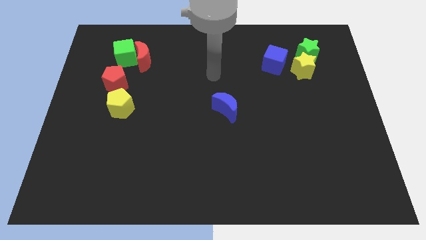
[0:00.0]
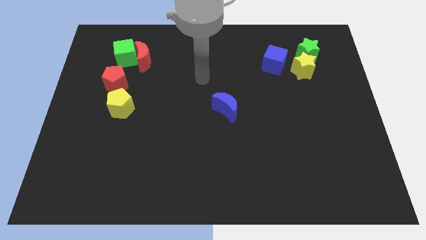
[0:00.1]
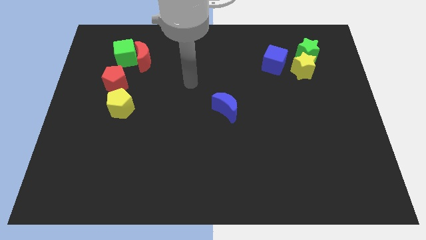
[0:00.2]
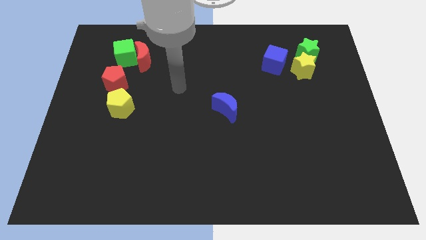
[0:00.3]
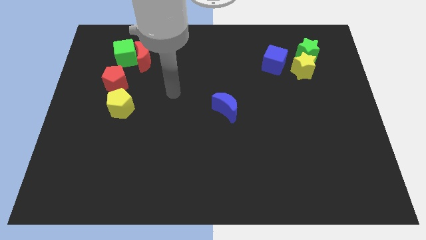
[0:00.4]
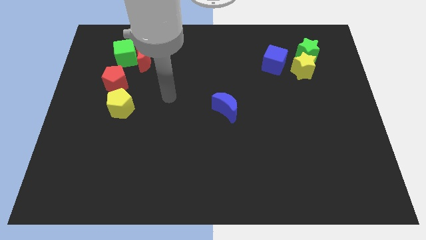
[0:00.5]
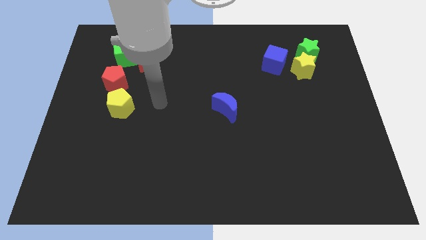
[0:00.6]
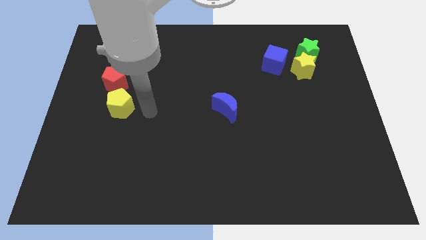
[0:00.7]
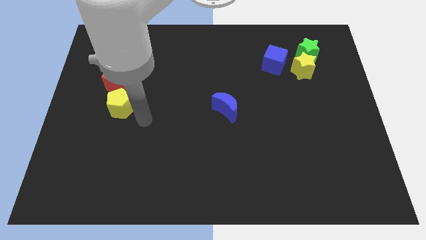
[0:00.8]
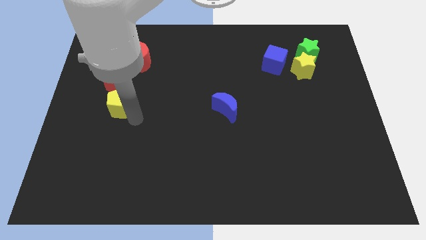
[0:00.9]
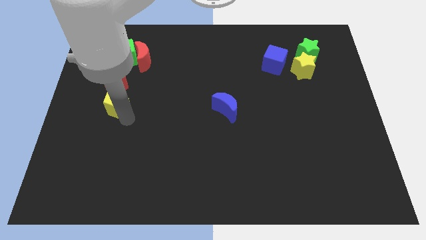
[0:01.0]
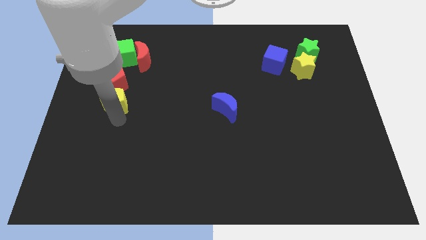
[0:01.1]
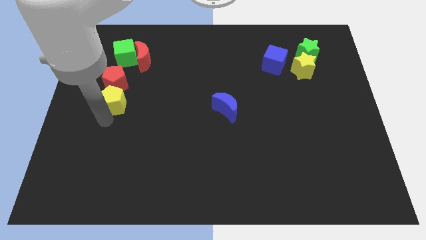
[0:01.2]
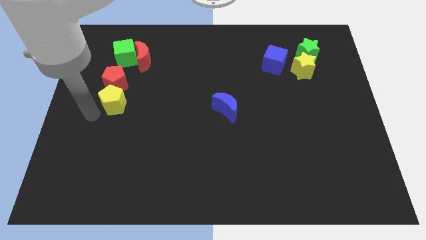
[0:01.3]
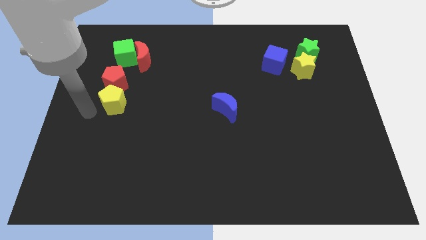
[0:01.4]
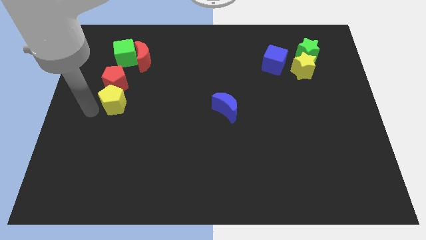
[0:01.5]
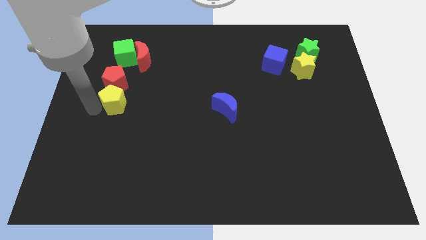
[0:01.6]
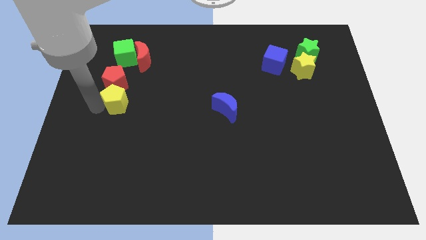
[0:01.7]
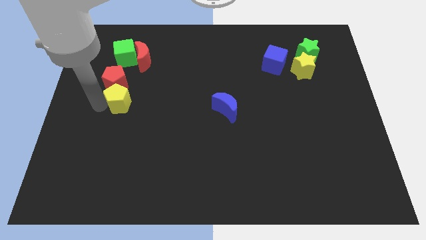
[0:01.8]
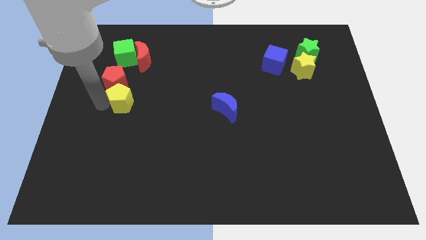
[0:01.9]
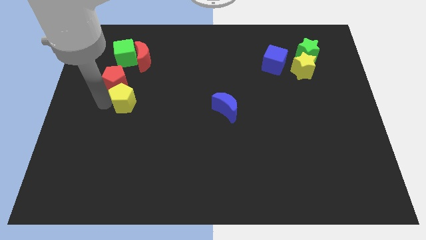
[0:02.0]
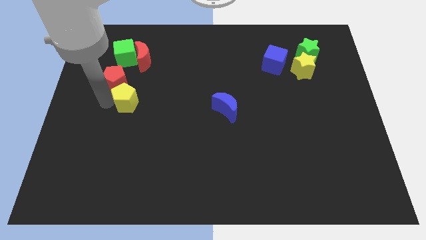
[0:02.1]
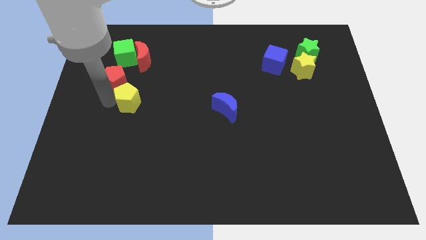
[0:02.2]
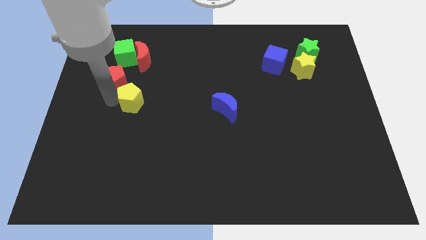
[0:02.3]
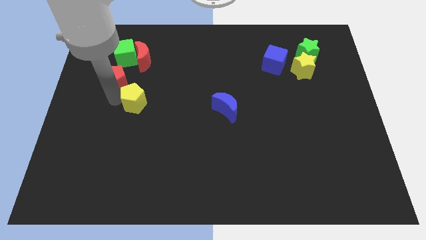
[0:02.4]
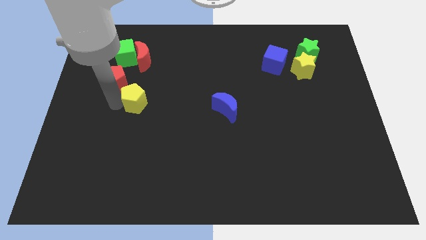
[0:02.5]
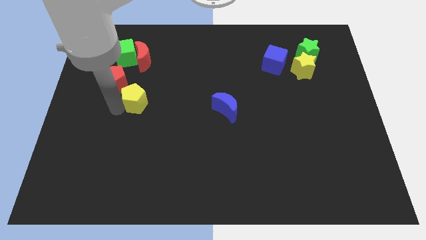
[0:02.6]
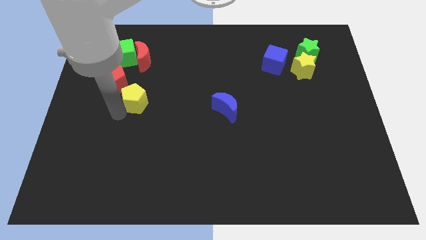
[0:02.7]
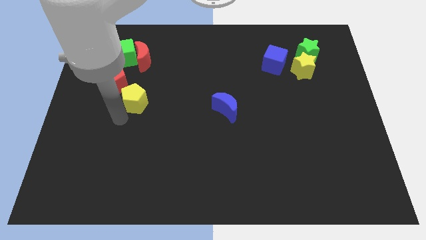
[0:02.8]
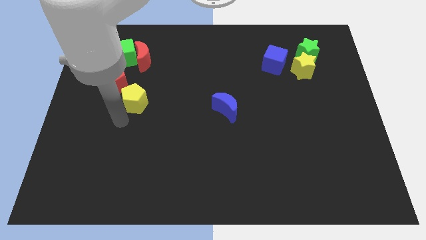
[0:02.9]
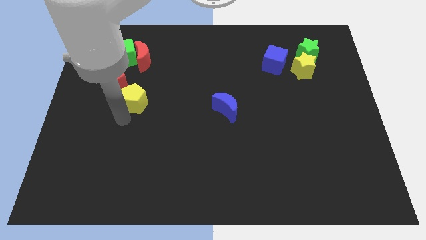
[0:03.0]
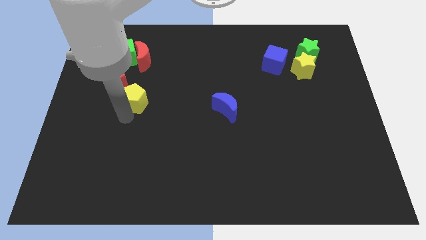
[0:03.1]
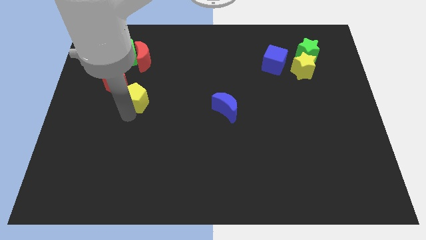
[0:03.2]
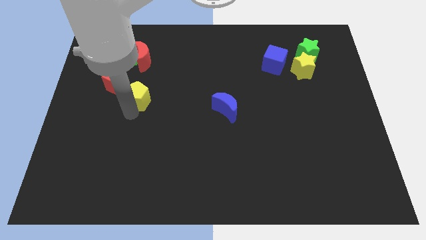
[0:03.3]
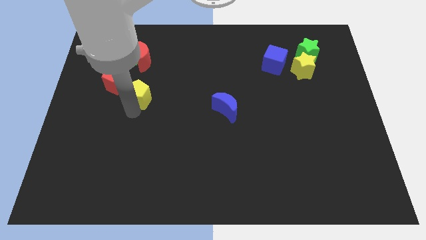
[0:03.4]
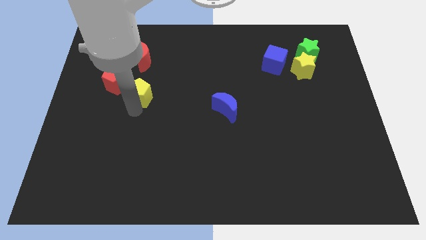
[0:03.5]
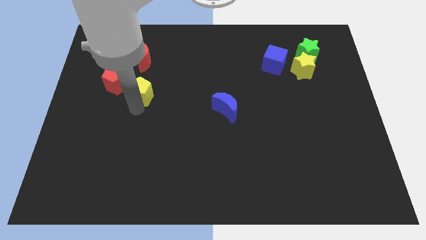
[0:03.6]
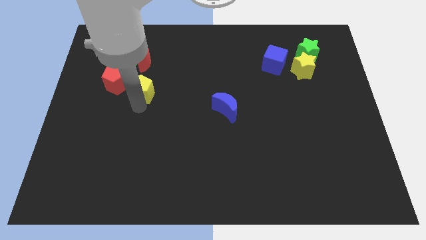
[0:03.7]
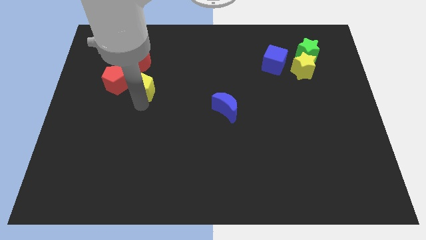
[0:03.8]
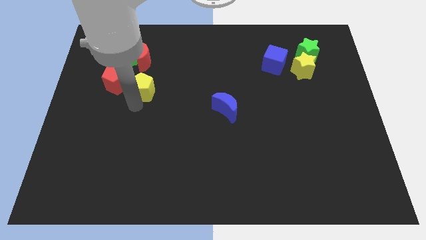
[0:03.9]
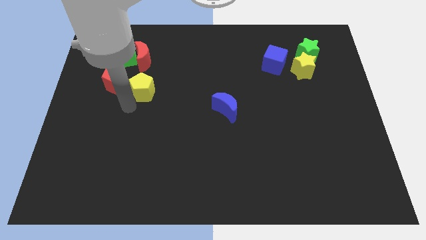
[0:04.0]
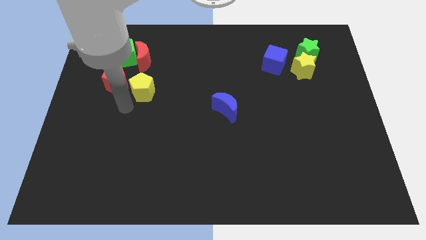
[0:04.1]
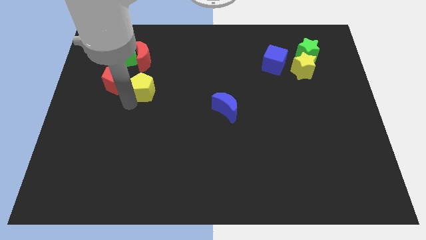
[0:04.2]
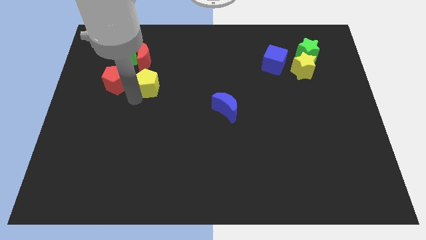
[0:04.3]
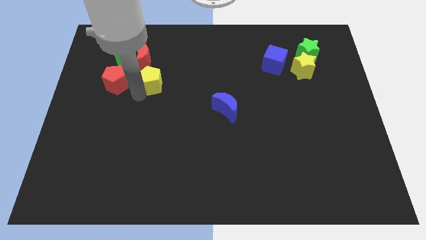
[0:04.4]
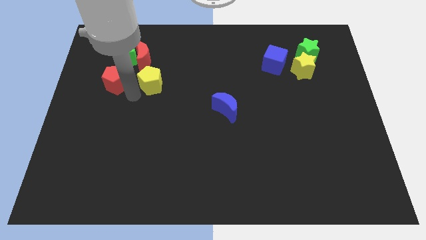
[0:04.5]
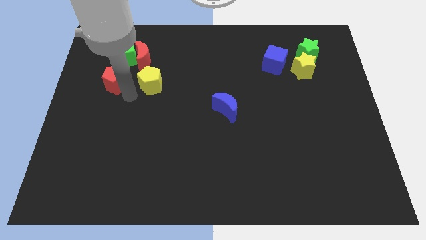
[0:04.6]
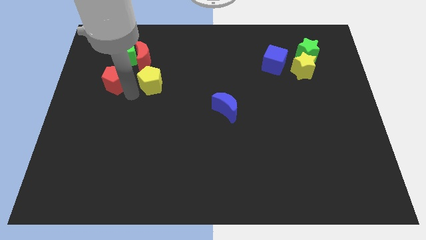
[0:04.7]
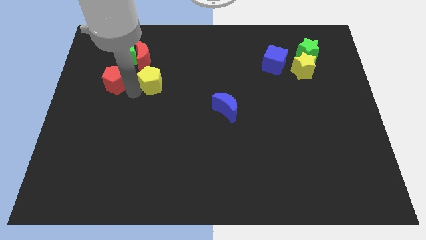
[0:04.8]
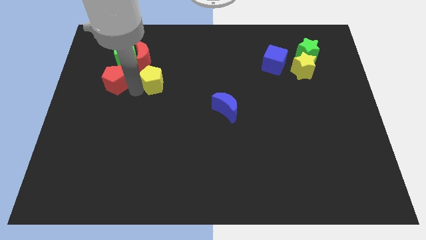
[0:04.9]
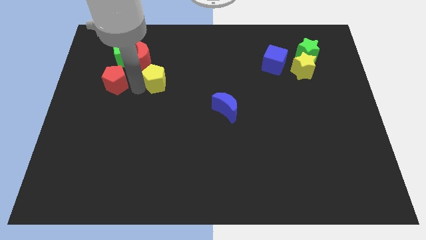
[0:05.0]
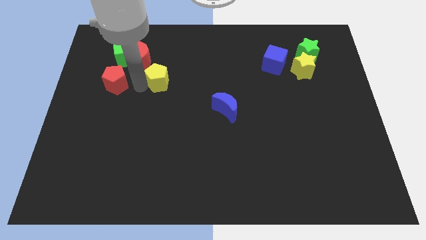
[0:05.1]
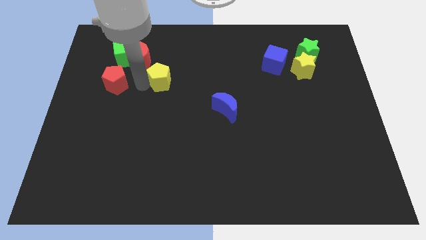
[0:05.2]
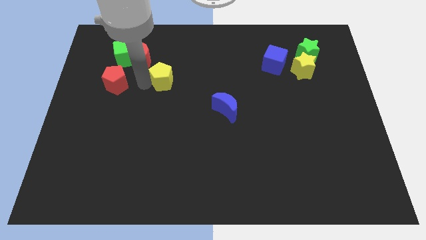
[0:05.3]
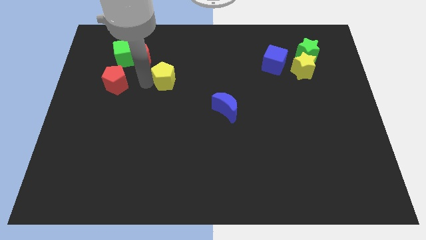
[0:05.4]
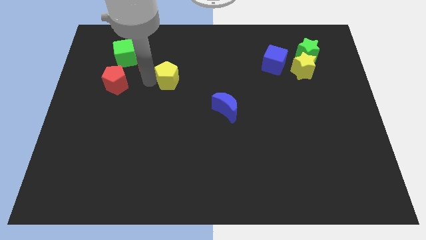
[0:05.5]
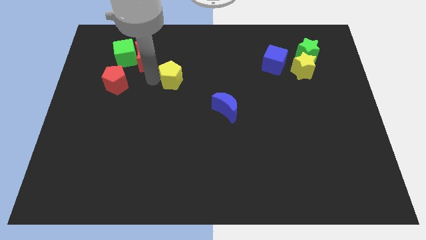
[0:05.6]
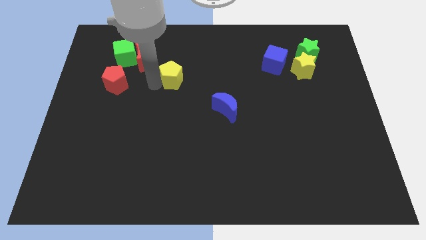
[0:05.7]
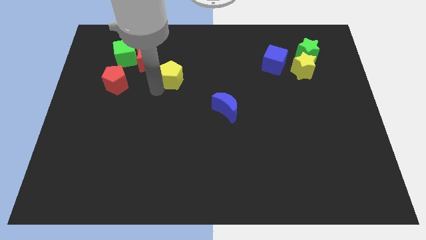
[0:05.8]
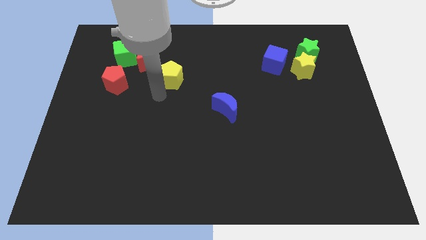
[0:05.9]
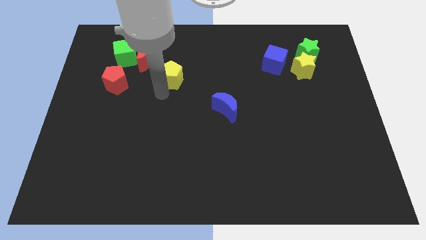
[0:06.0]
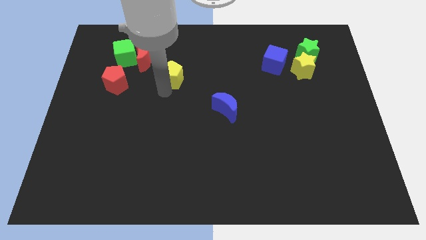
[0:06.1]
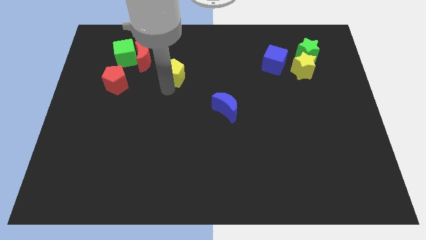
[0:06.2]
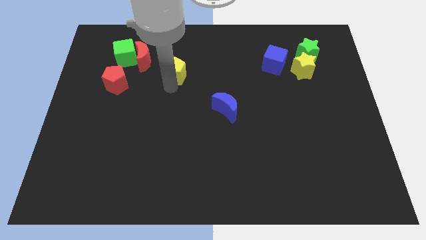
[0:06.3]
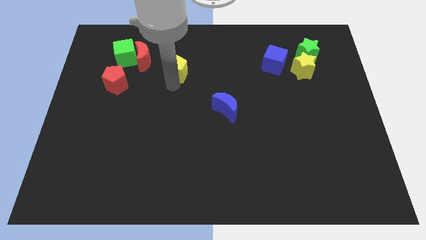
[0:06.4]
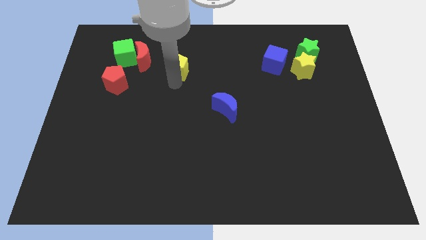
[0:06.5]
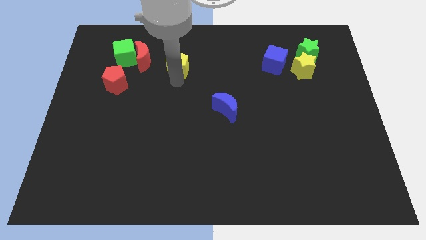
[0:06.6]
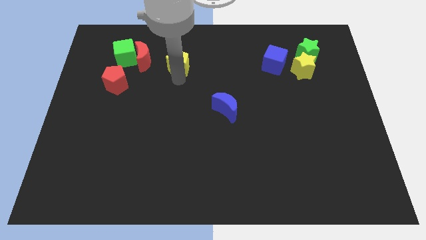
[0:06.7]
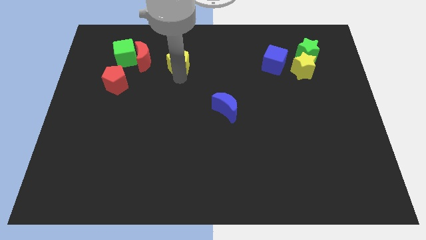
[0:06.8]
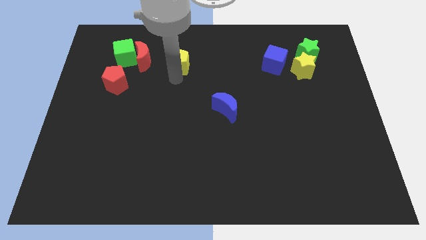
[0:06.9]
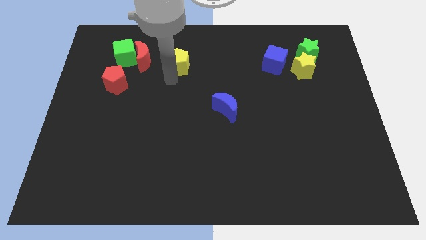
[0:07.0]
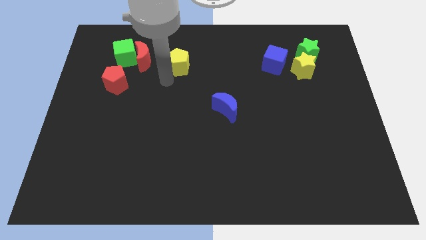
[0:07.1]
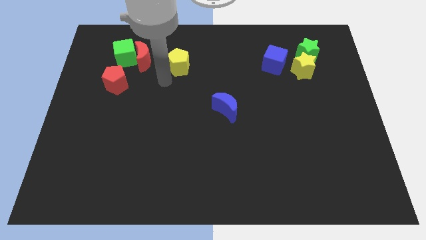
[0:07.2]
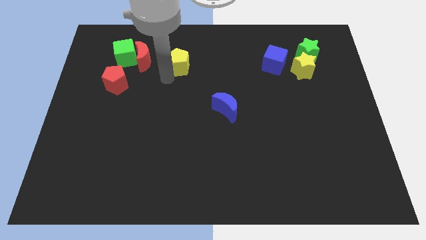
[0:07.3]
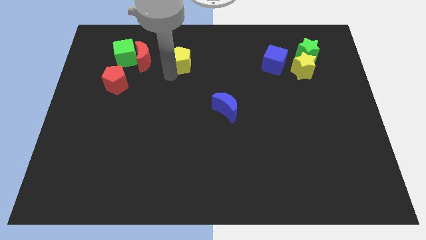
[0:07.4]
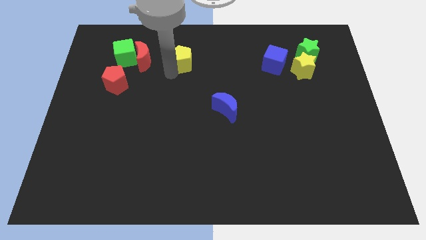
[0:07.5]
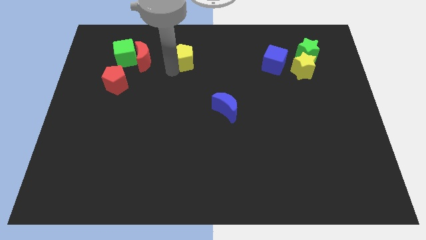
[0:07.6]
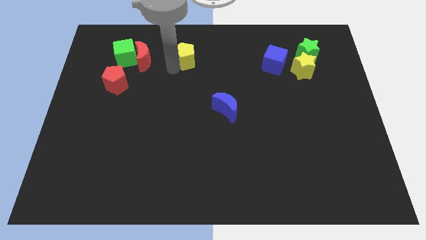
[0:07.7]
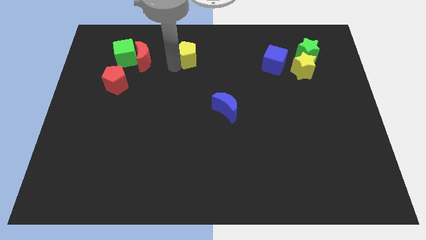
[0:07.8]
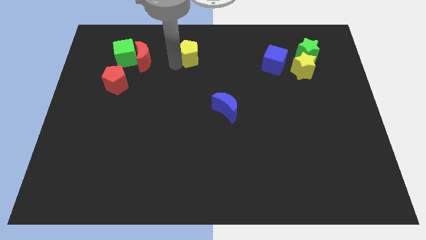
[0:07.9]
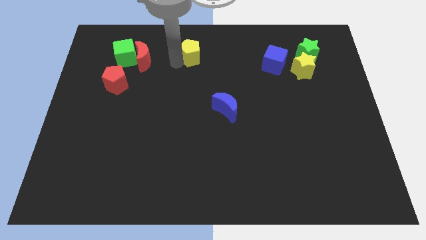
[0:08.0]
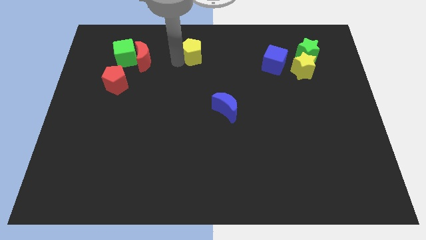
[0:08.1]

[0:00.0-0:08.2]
put the yellow pentagon to the top
